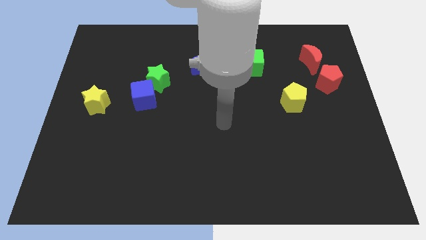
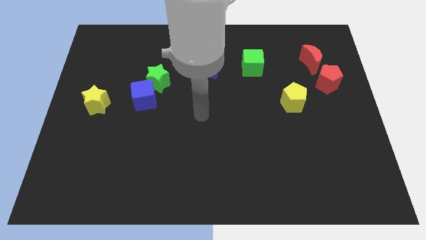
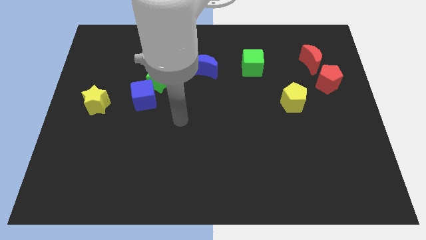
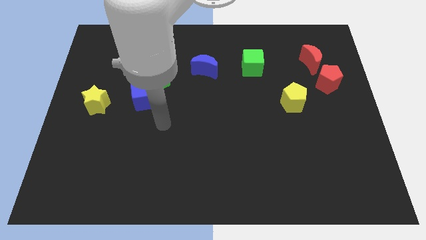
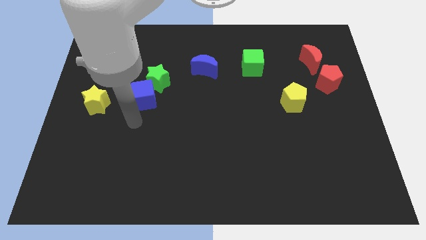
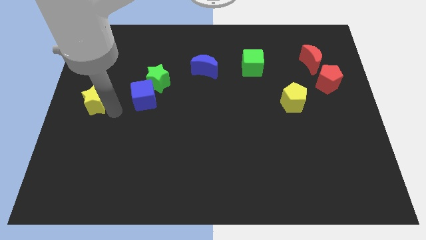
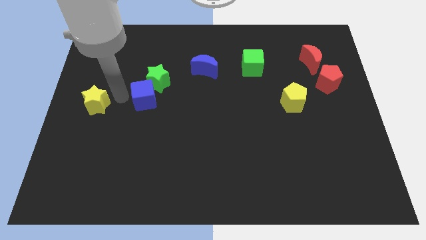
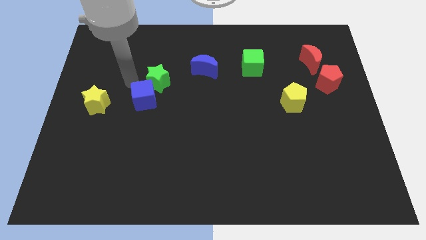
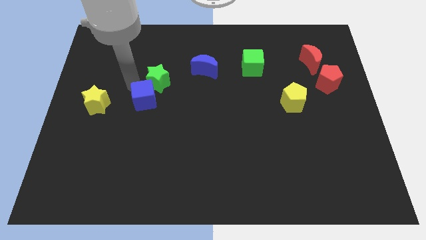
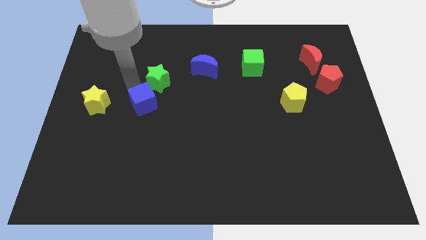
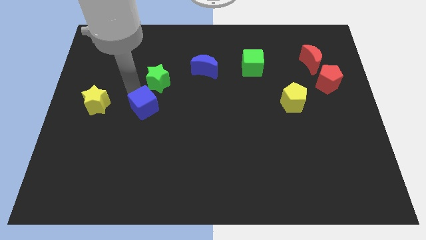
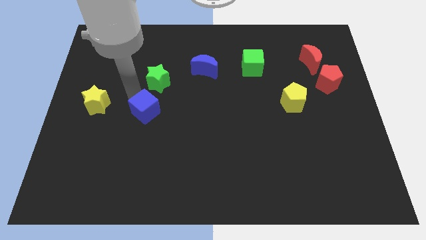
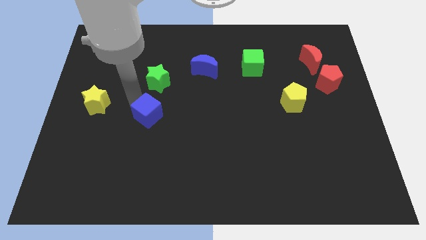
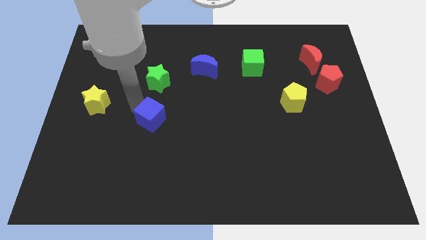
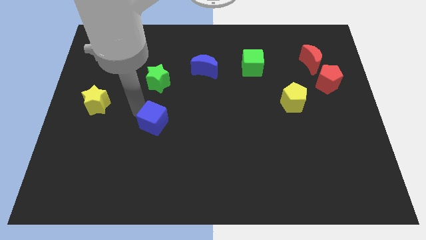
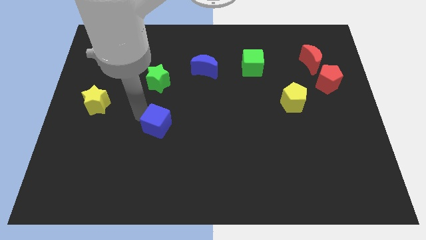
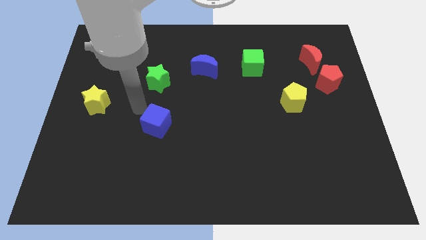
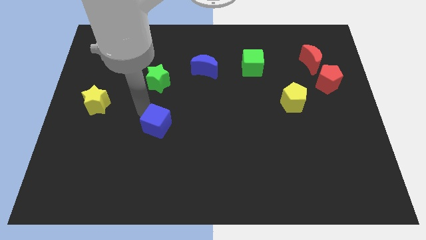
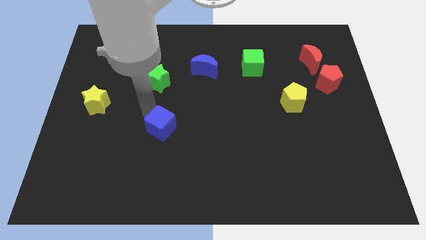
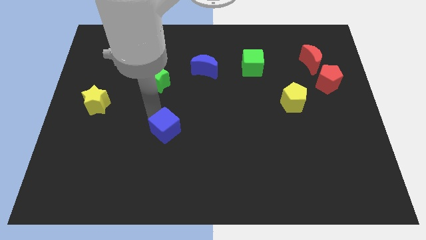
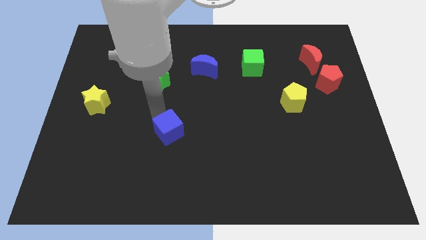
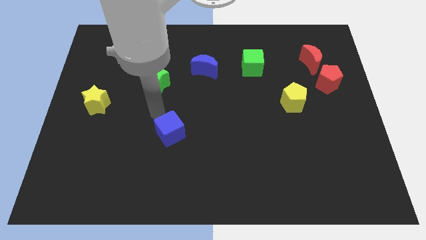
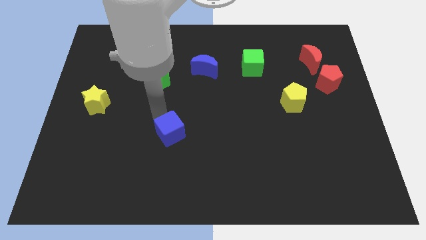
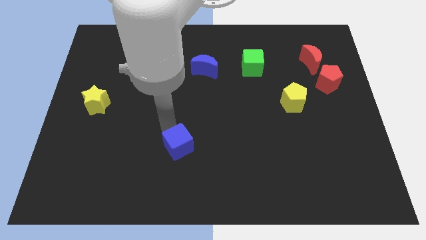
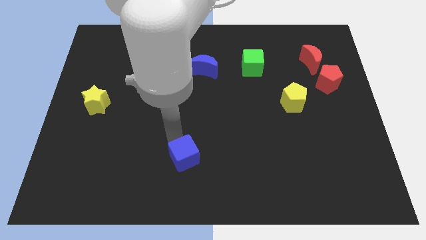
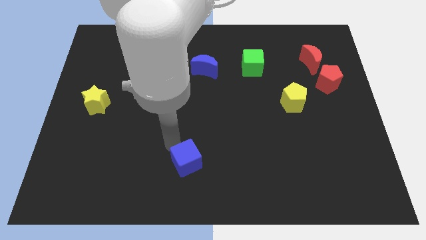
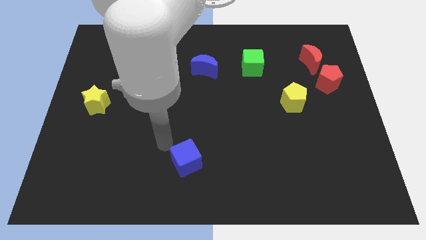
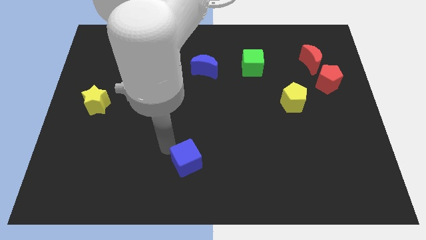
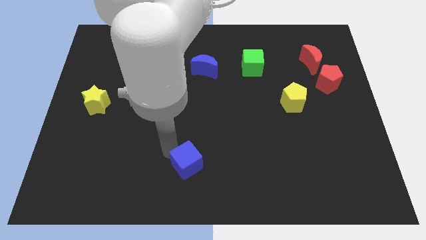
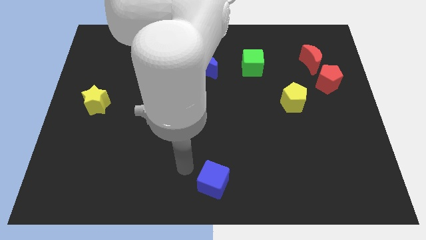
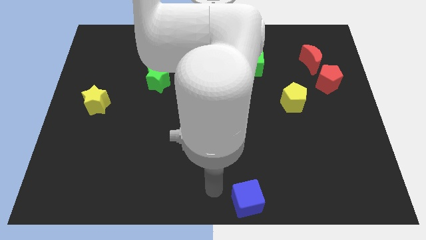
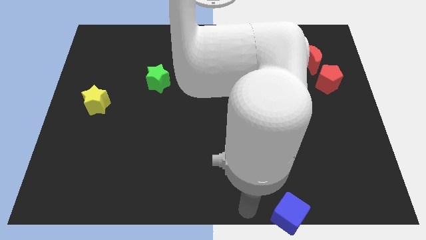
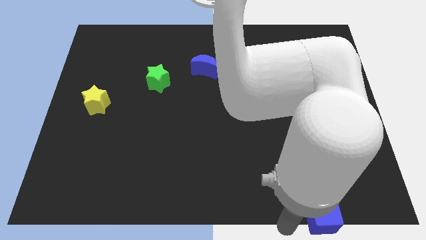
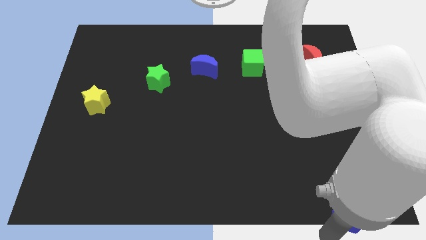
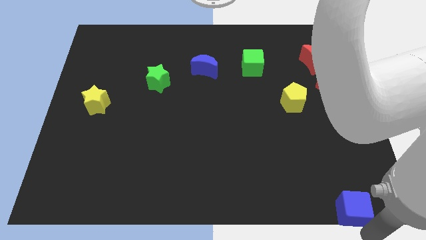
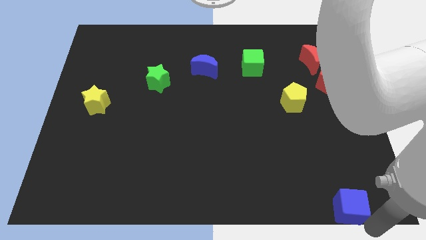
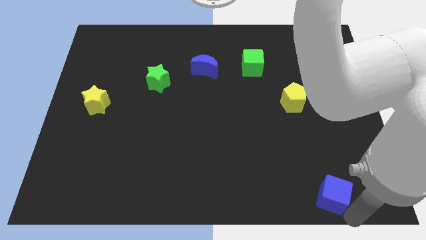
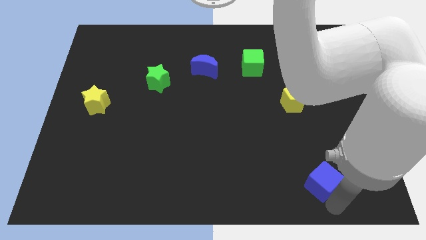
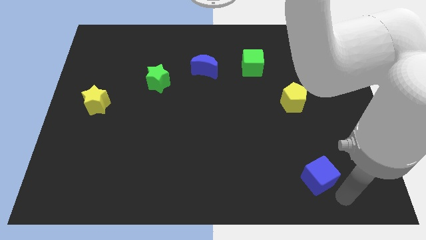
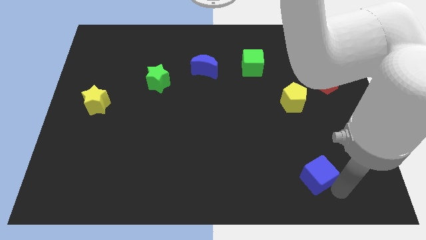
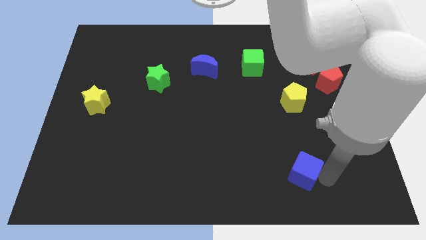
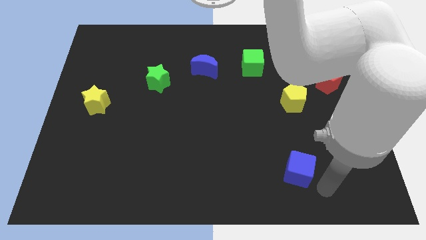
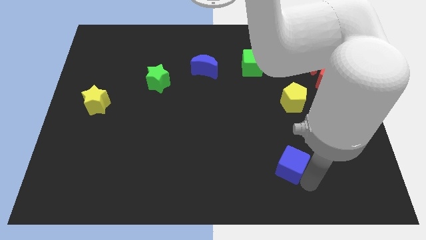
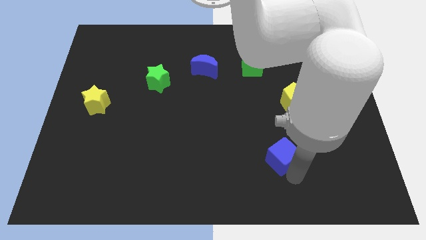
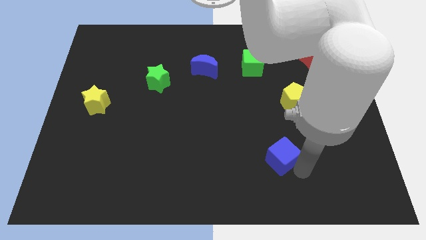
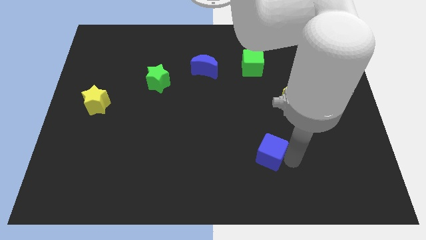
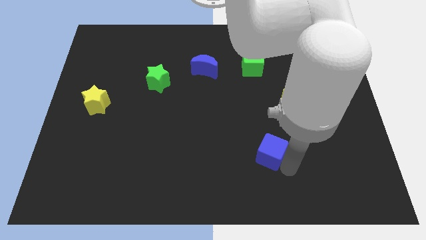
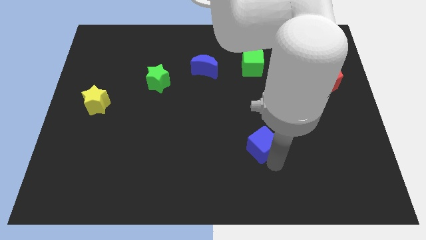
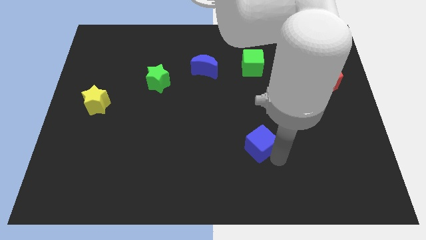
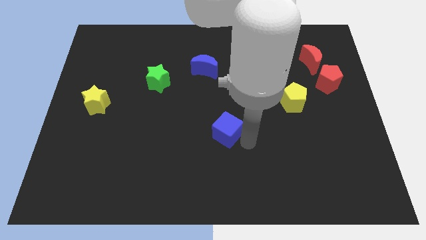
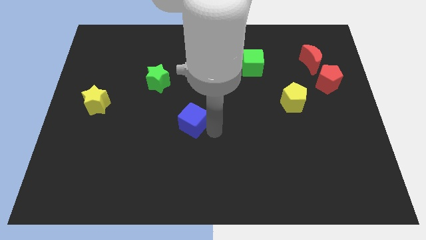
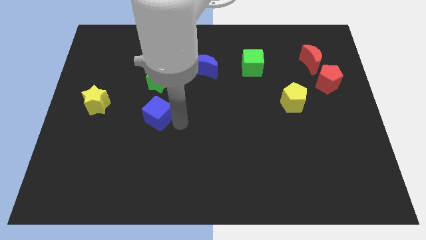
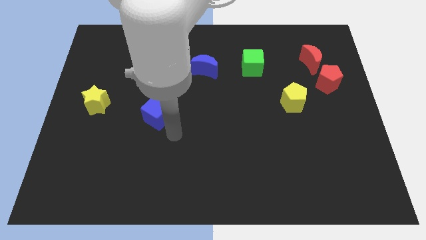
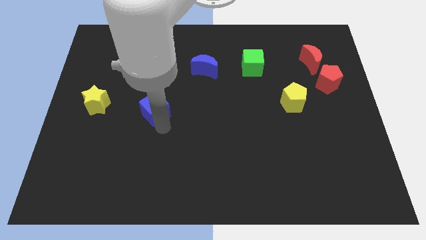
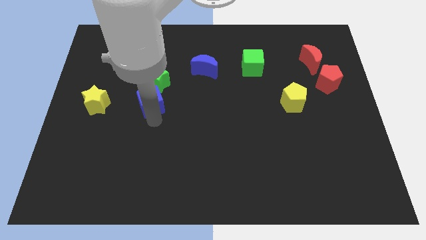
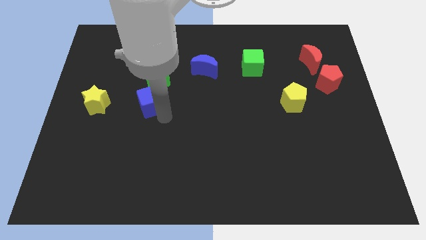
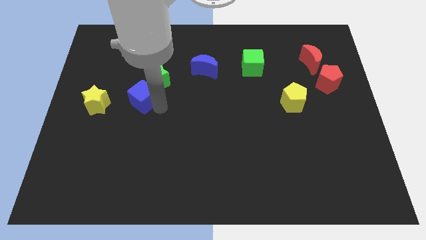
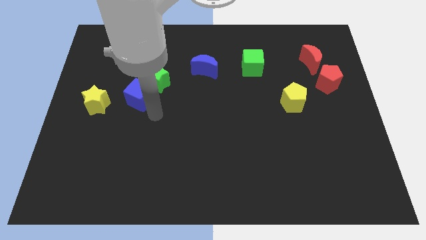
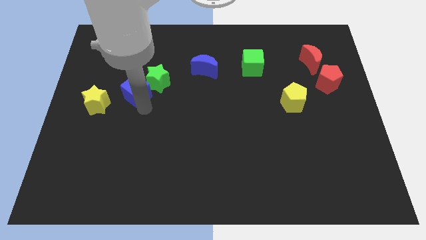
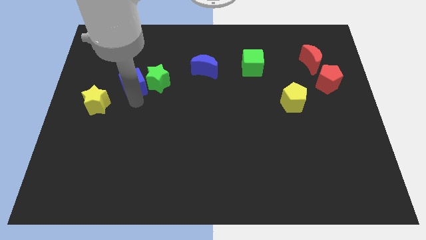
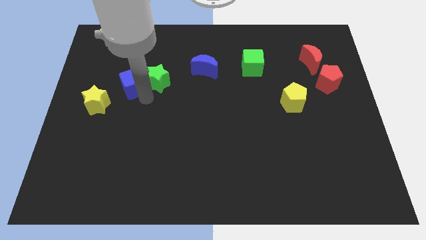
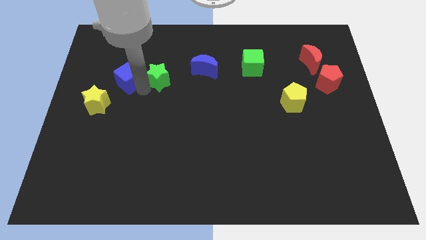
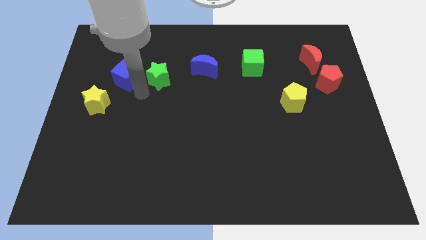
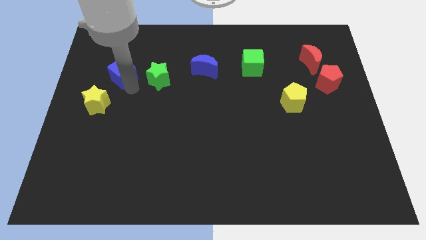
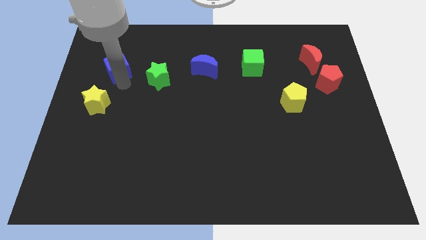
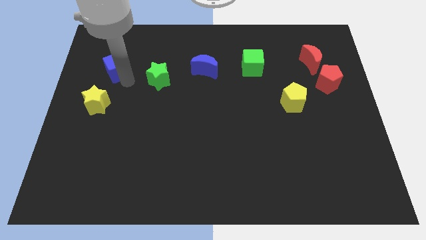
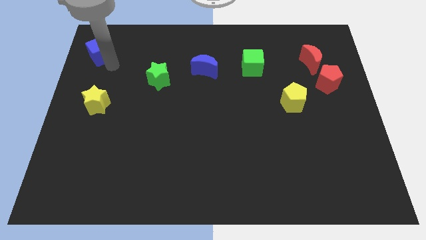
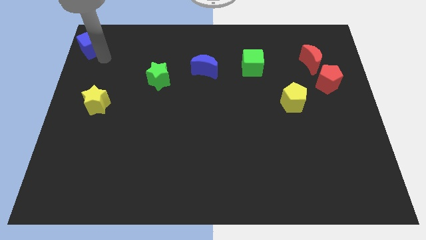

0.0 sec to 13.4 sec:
slide the blue cube to the top left
